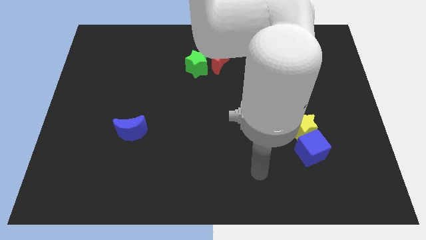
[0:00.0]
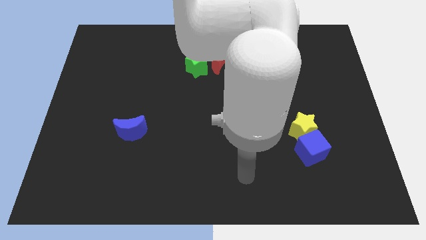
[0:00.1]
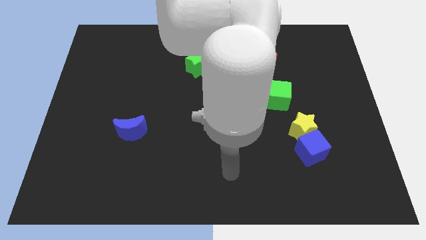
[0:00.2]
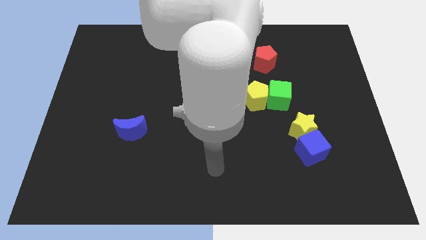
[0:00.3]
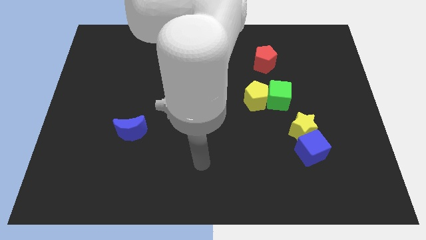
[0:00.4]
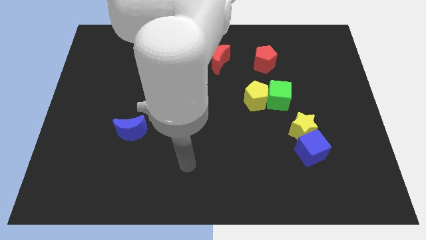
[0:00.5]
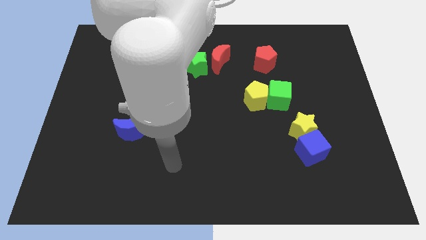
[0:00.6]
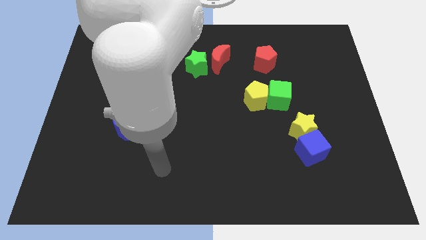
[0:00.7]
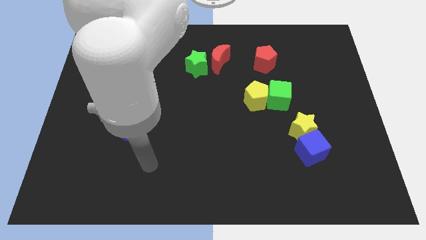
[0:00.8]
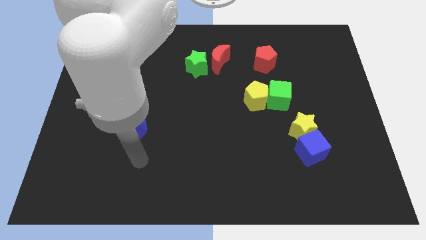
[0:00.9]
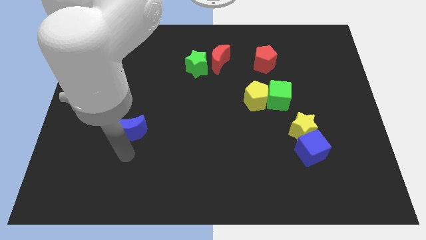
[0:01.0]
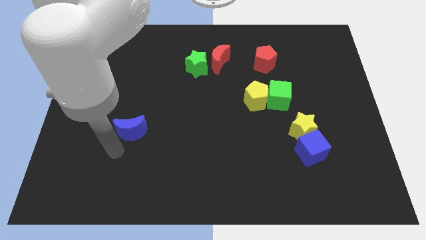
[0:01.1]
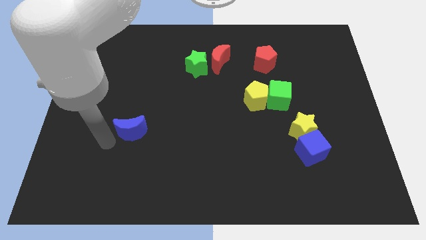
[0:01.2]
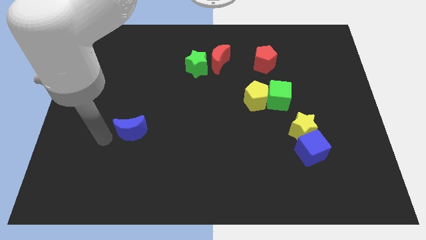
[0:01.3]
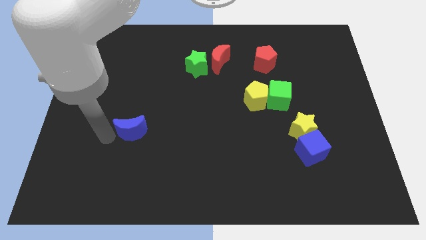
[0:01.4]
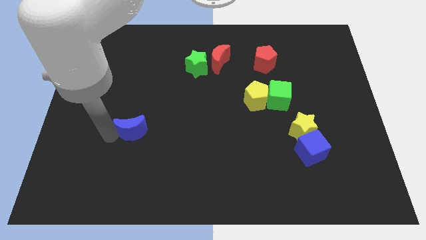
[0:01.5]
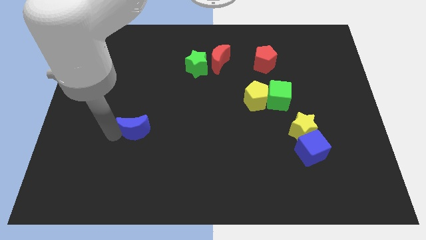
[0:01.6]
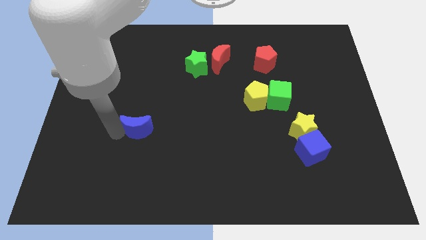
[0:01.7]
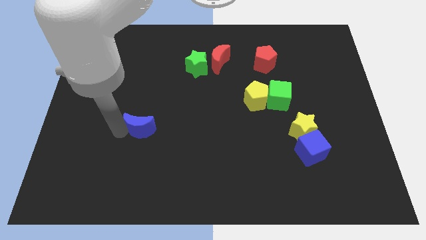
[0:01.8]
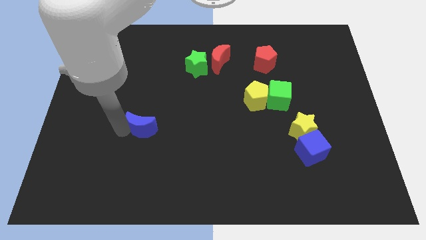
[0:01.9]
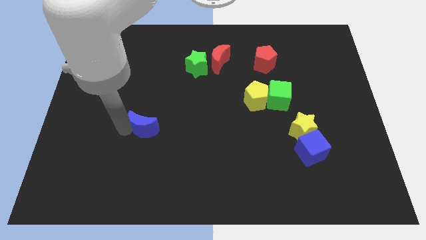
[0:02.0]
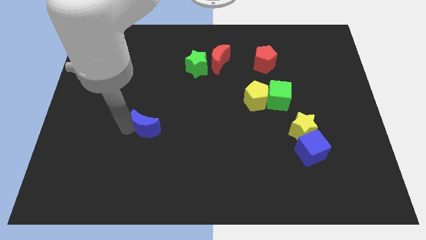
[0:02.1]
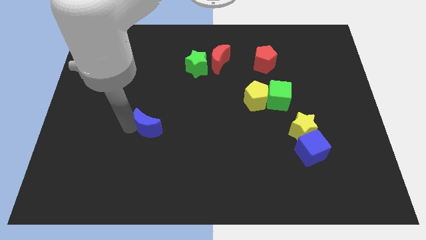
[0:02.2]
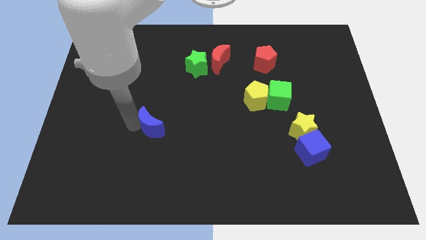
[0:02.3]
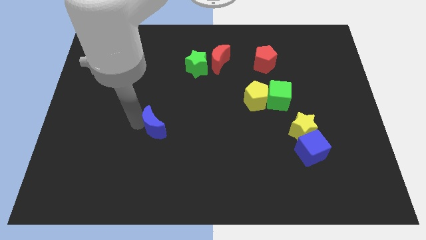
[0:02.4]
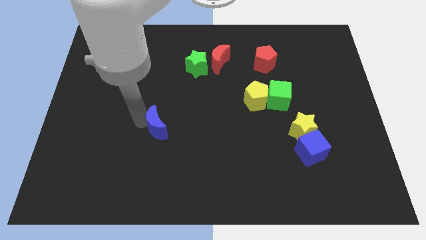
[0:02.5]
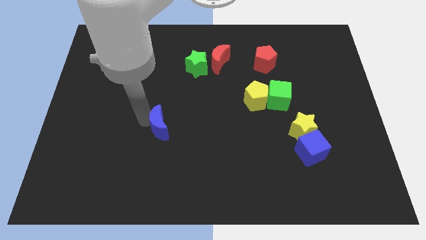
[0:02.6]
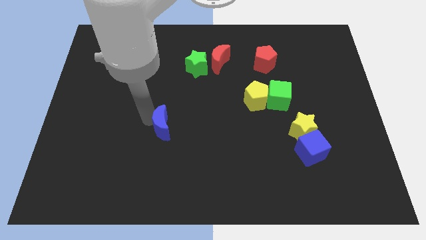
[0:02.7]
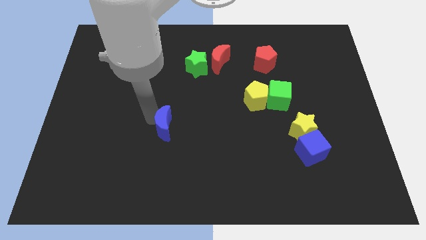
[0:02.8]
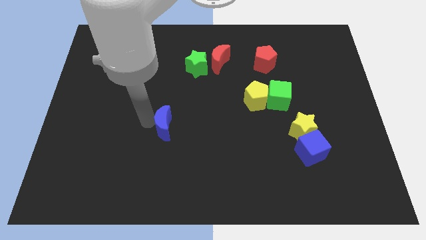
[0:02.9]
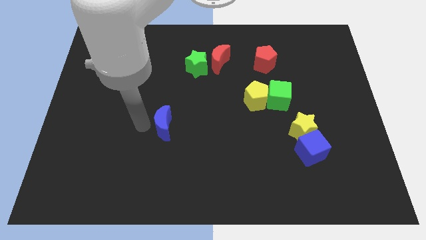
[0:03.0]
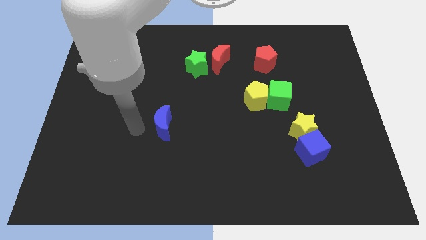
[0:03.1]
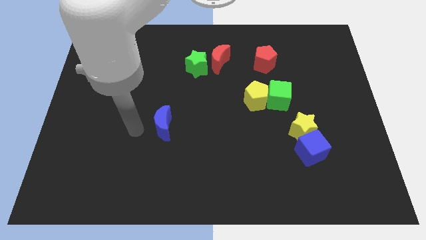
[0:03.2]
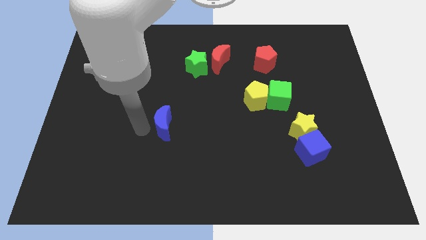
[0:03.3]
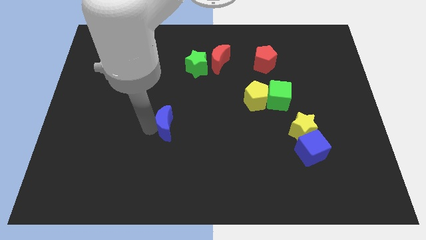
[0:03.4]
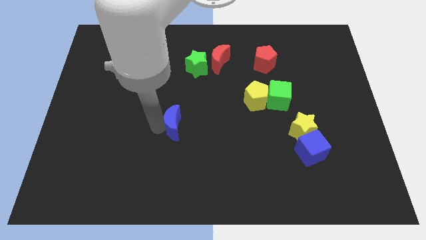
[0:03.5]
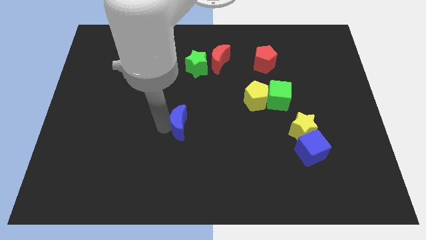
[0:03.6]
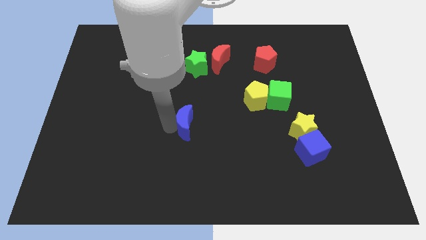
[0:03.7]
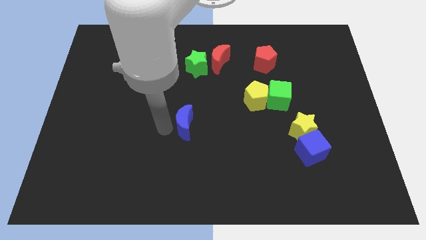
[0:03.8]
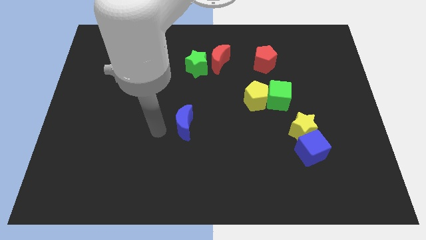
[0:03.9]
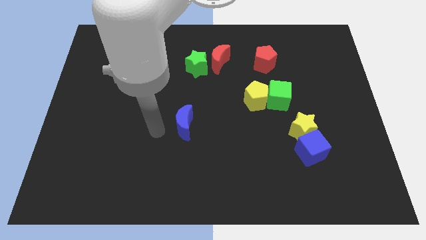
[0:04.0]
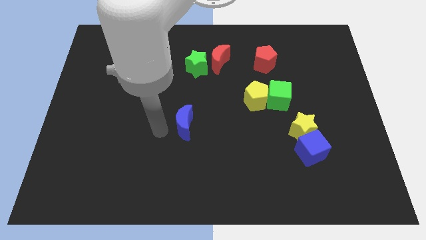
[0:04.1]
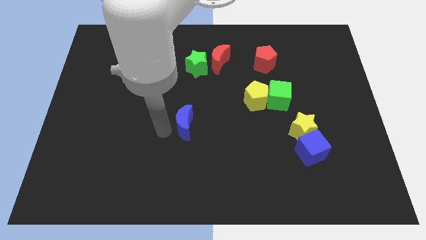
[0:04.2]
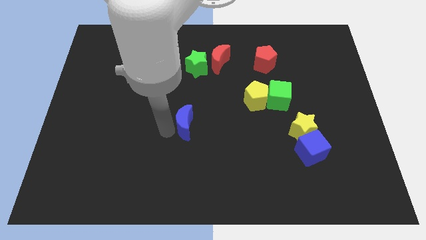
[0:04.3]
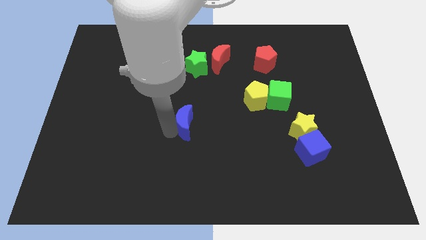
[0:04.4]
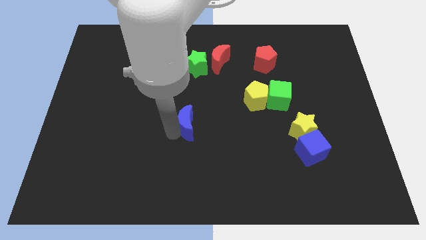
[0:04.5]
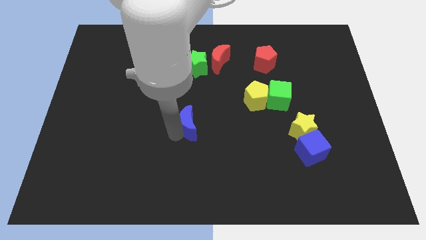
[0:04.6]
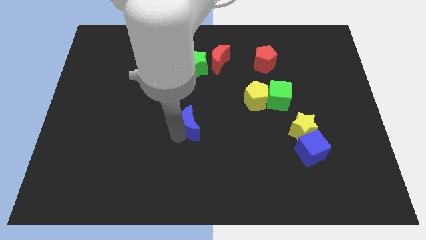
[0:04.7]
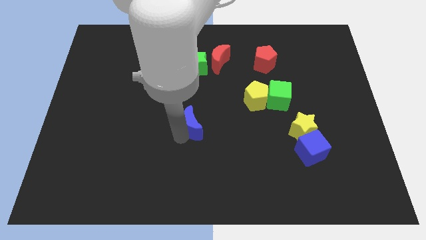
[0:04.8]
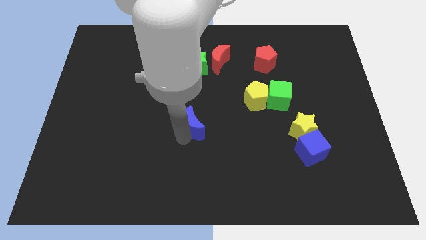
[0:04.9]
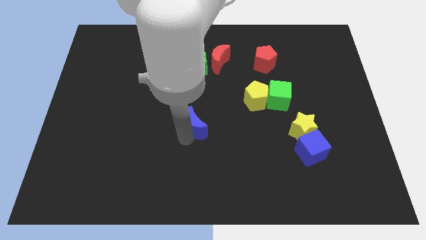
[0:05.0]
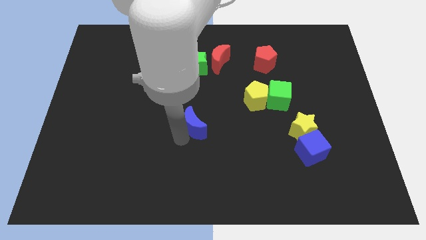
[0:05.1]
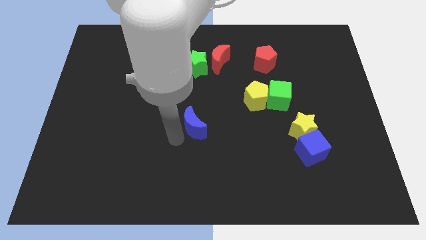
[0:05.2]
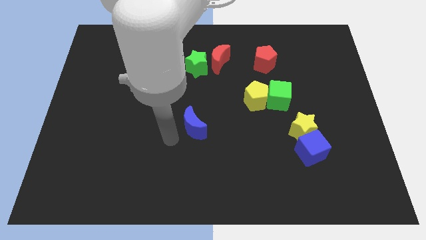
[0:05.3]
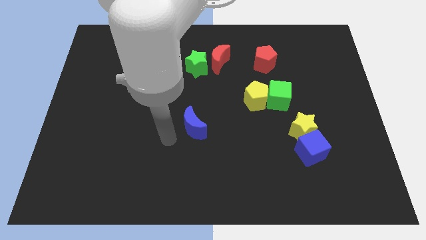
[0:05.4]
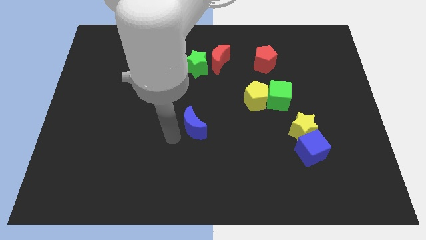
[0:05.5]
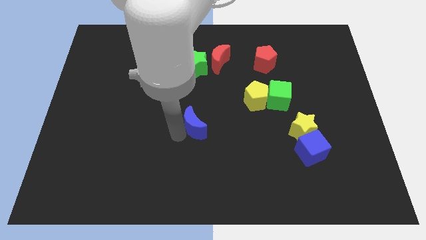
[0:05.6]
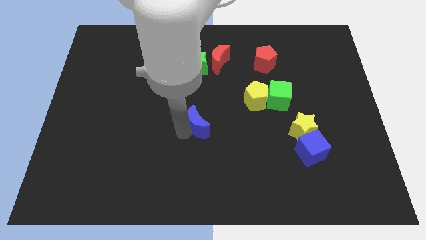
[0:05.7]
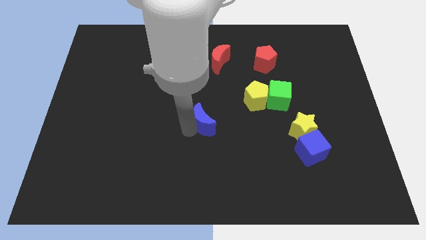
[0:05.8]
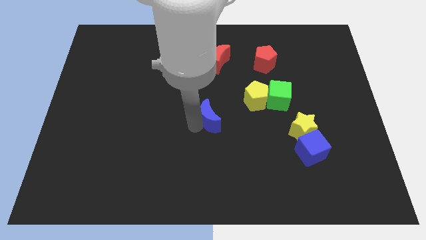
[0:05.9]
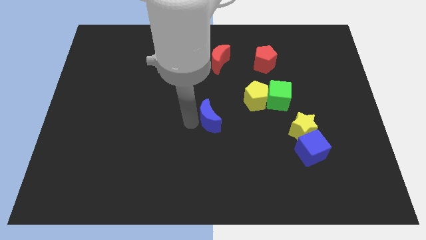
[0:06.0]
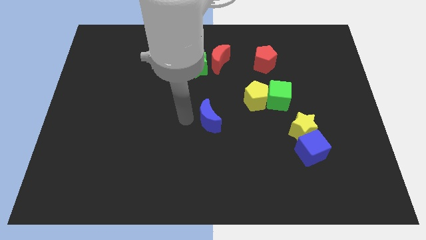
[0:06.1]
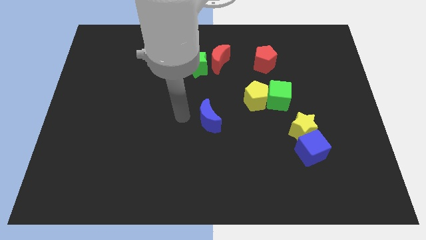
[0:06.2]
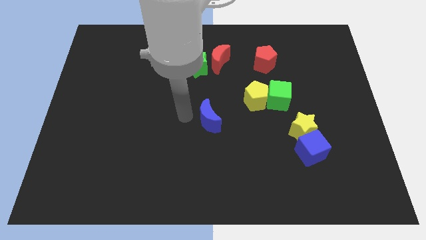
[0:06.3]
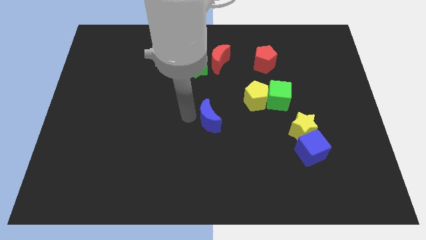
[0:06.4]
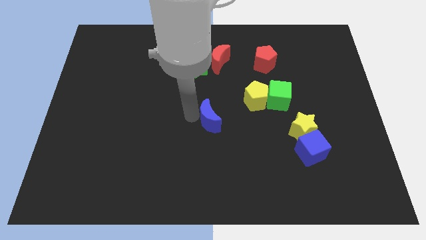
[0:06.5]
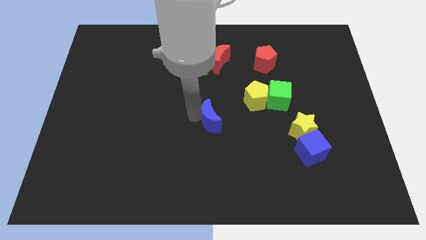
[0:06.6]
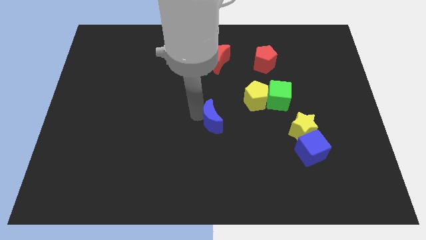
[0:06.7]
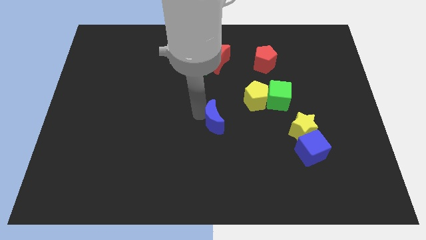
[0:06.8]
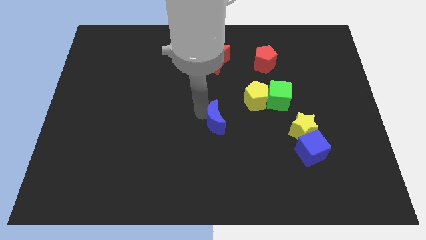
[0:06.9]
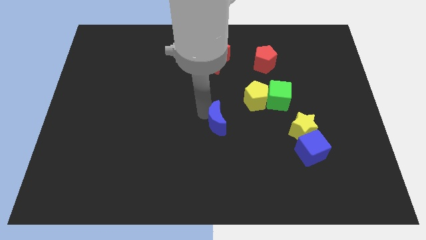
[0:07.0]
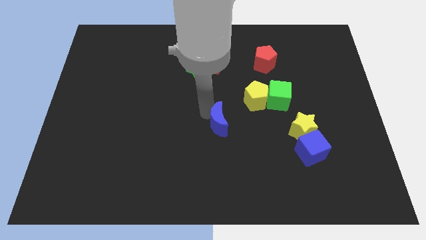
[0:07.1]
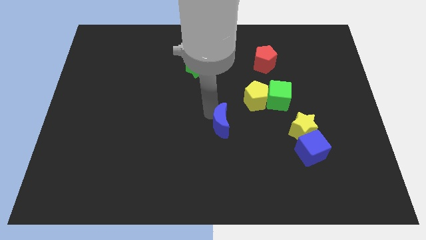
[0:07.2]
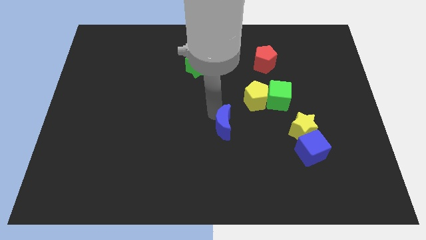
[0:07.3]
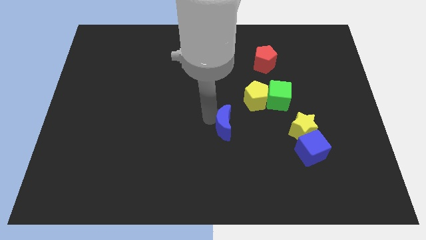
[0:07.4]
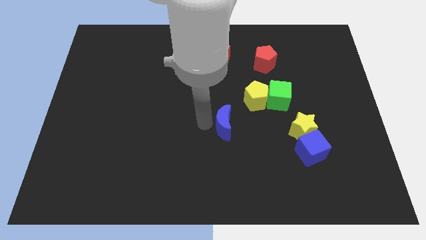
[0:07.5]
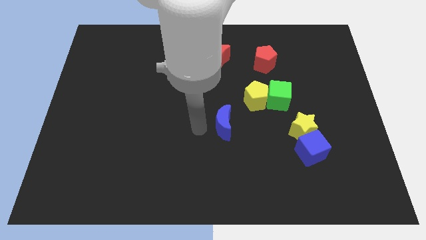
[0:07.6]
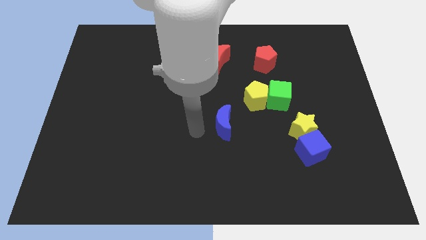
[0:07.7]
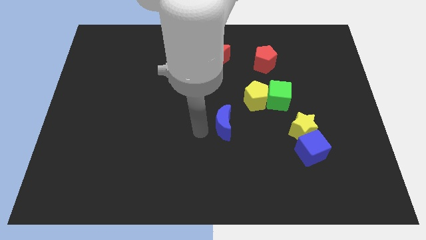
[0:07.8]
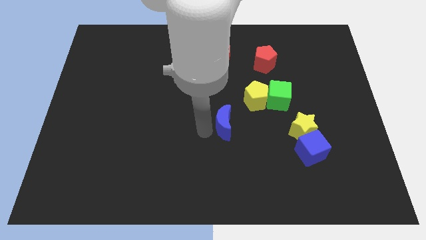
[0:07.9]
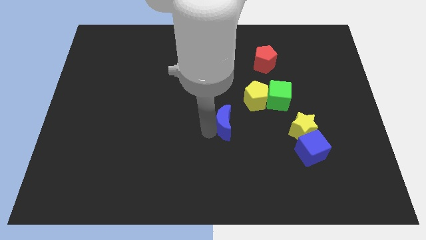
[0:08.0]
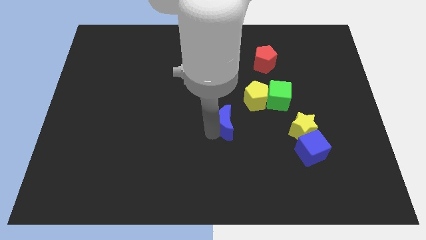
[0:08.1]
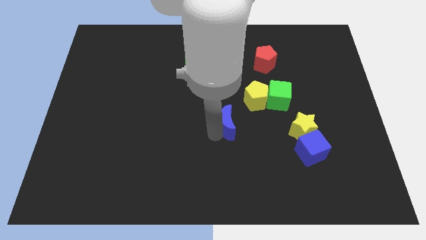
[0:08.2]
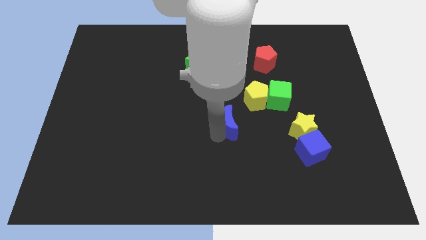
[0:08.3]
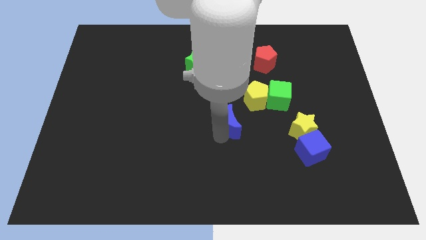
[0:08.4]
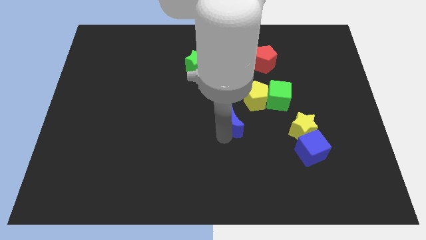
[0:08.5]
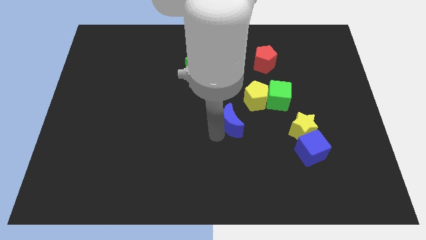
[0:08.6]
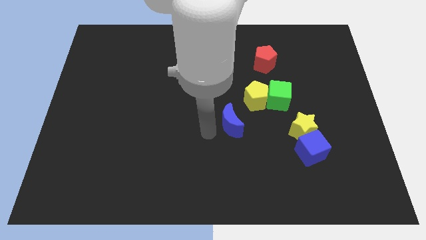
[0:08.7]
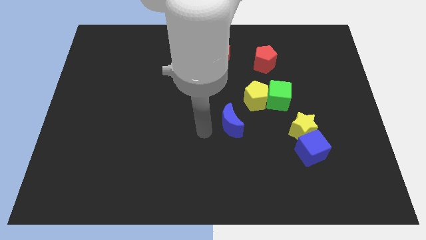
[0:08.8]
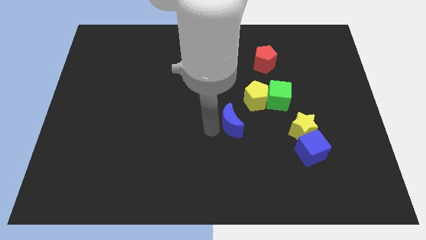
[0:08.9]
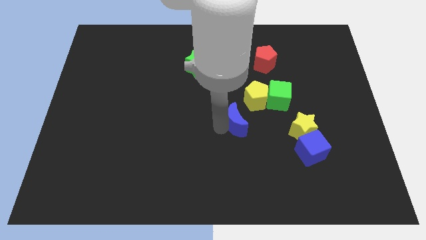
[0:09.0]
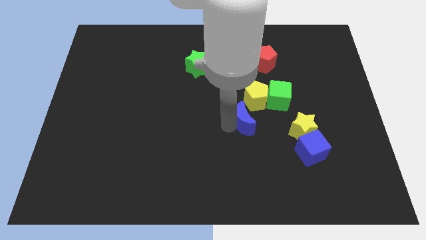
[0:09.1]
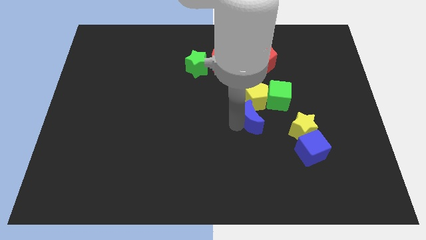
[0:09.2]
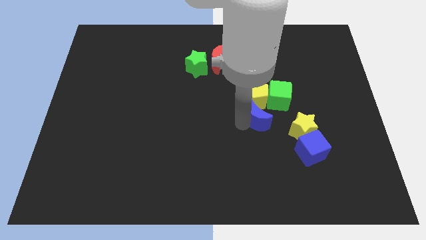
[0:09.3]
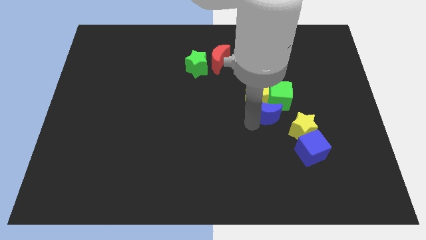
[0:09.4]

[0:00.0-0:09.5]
put the blue moon towards the green cube
